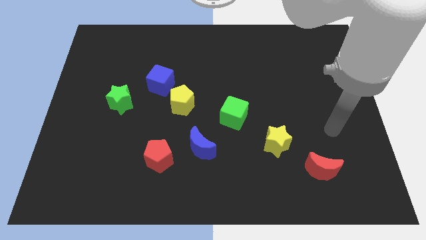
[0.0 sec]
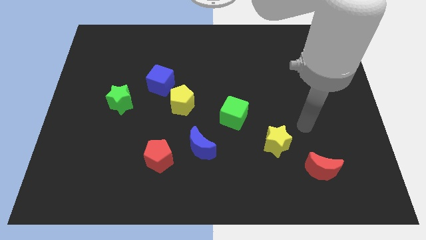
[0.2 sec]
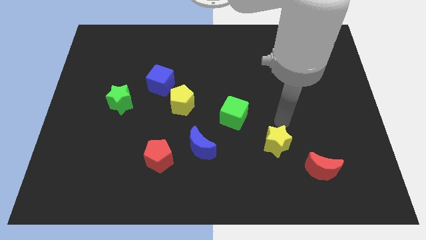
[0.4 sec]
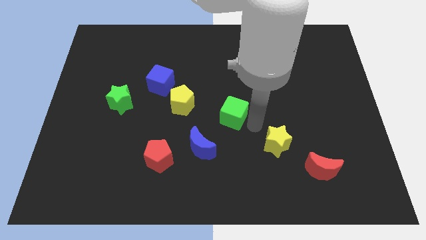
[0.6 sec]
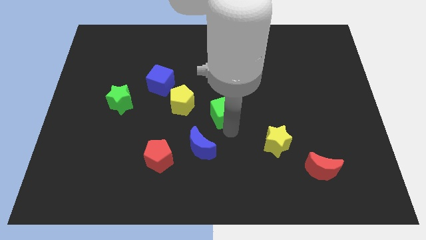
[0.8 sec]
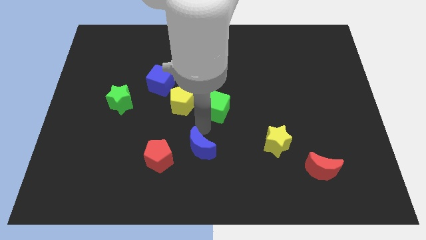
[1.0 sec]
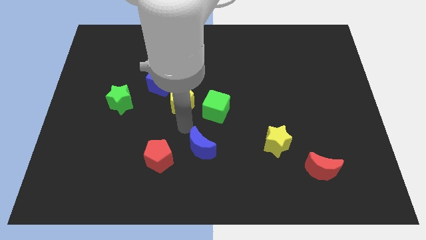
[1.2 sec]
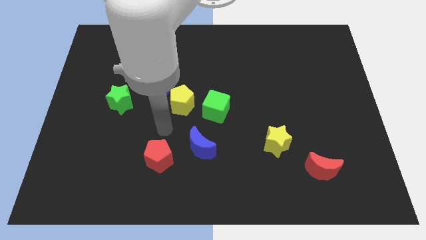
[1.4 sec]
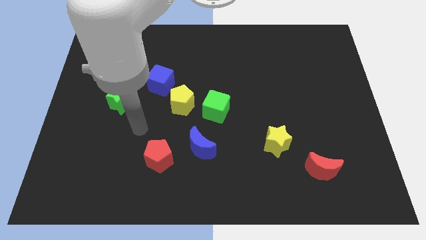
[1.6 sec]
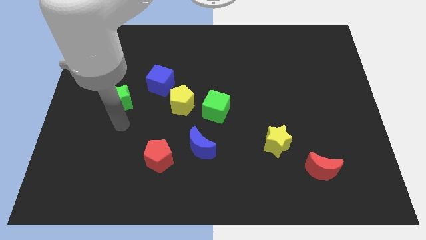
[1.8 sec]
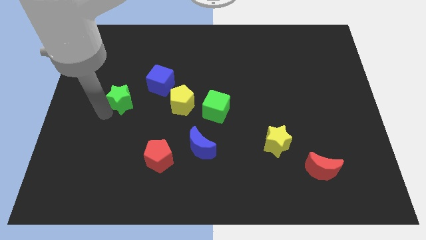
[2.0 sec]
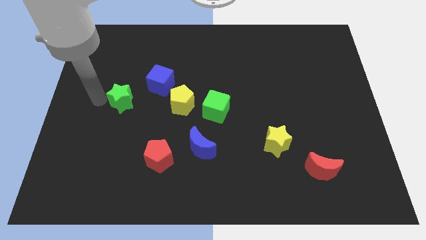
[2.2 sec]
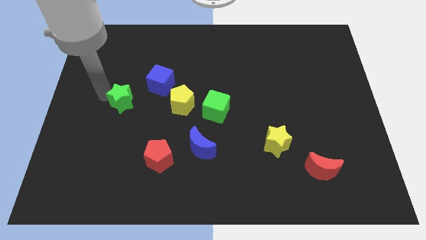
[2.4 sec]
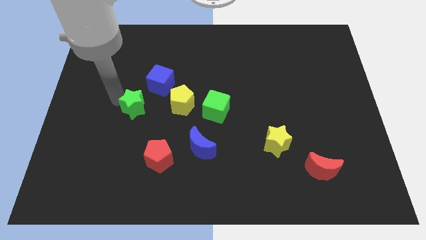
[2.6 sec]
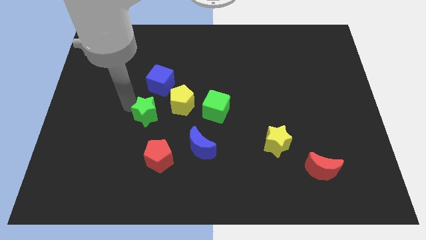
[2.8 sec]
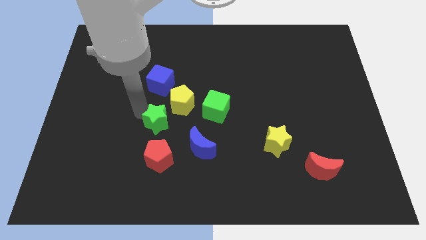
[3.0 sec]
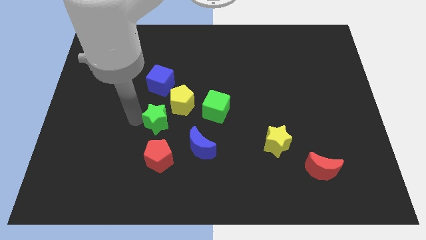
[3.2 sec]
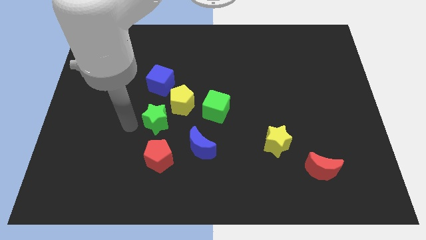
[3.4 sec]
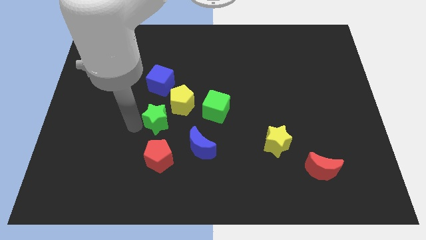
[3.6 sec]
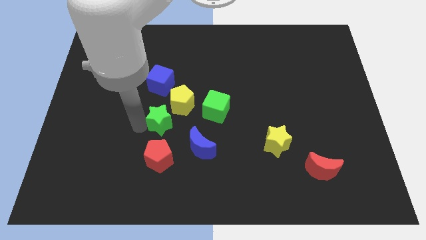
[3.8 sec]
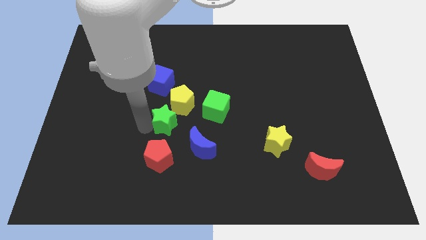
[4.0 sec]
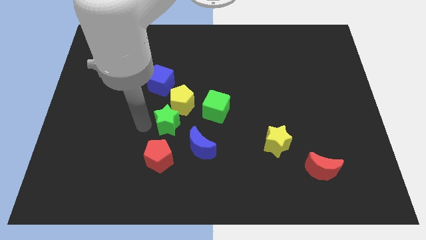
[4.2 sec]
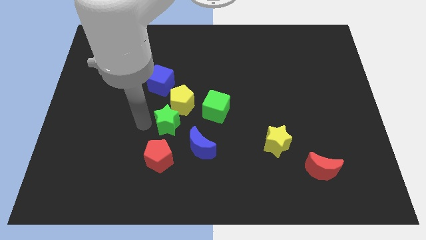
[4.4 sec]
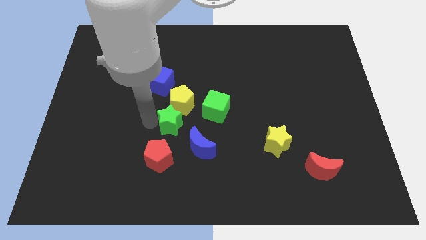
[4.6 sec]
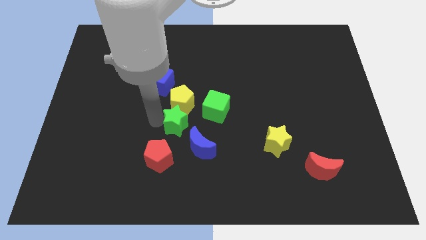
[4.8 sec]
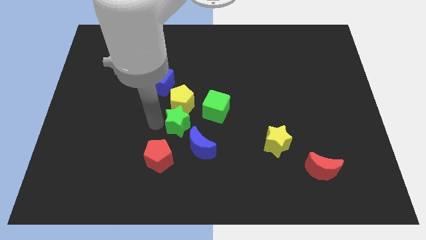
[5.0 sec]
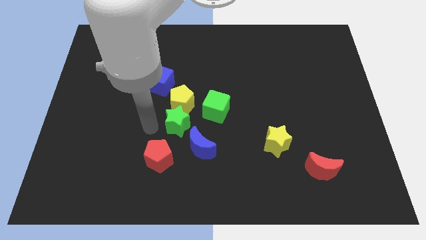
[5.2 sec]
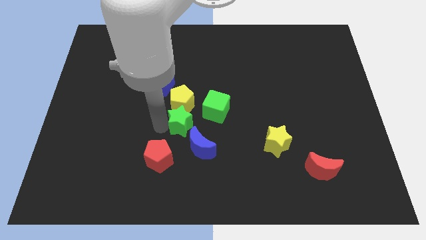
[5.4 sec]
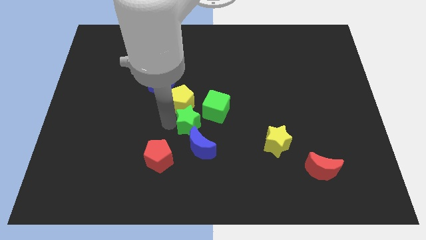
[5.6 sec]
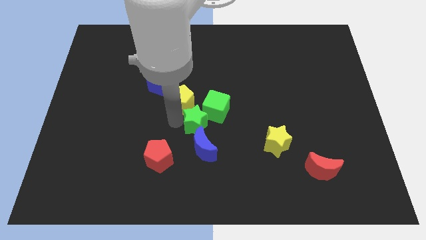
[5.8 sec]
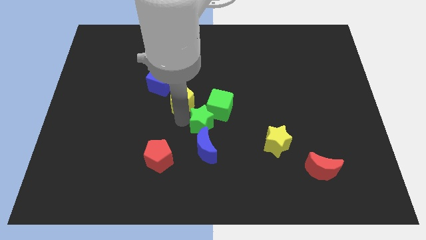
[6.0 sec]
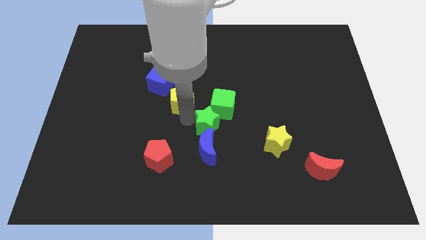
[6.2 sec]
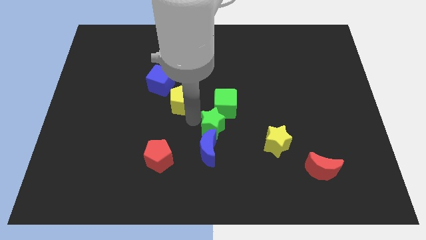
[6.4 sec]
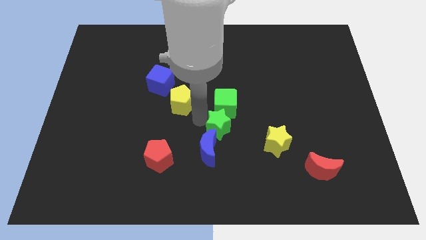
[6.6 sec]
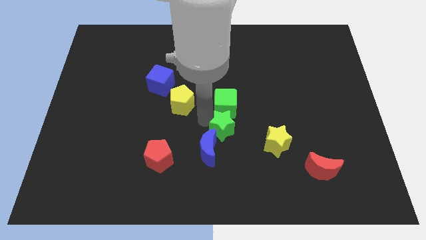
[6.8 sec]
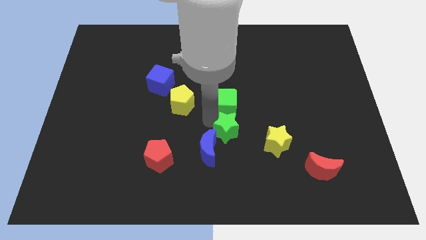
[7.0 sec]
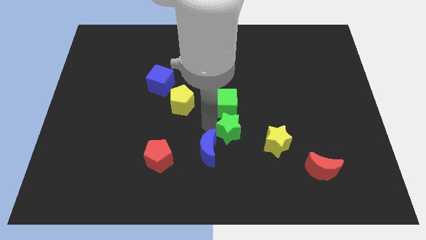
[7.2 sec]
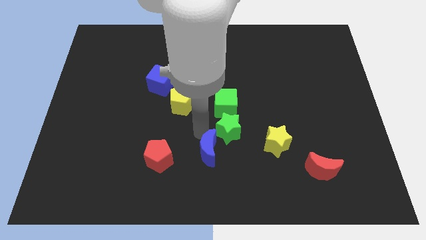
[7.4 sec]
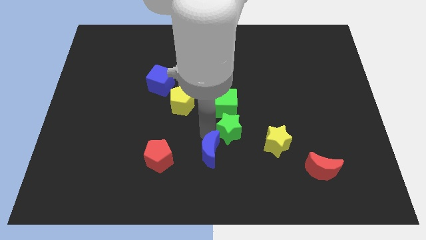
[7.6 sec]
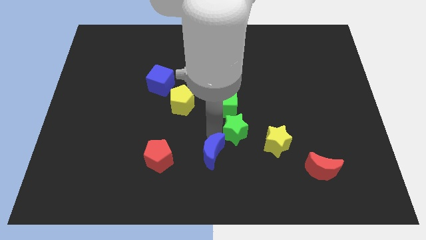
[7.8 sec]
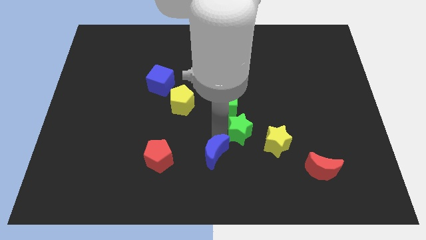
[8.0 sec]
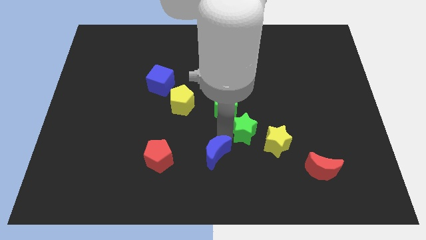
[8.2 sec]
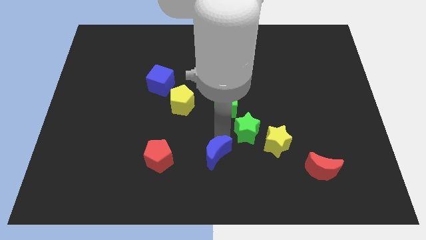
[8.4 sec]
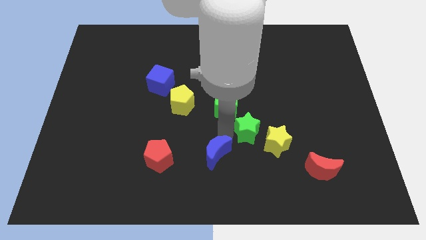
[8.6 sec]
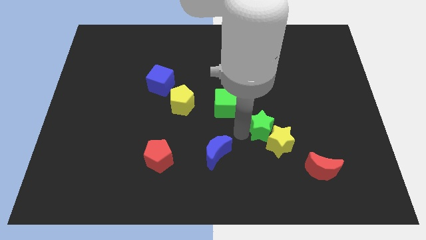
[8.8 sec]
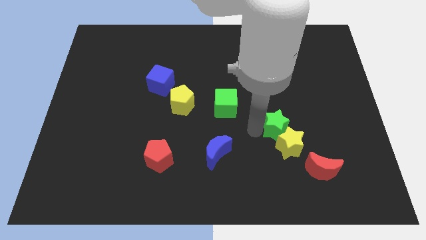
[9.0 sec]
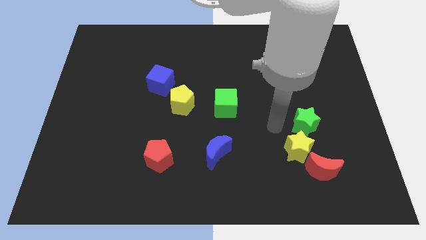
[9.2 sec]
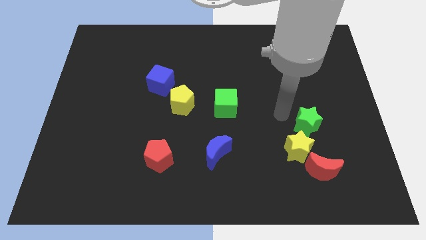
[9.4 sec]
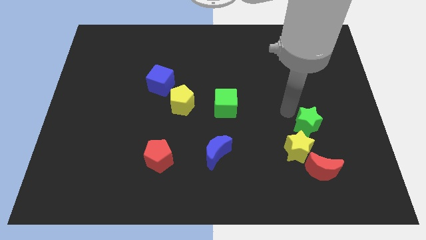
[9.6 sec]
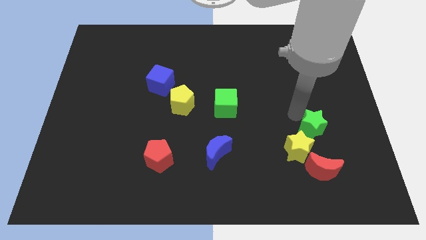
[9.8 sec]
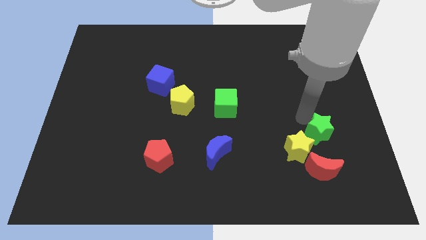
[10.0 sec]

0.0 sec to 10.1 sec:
push the green star right of the yellow star

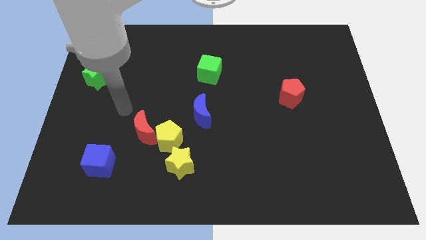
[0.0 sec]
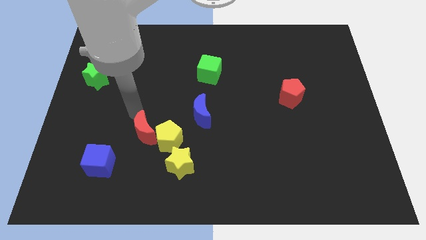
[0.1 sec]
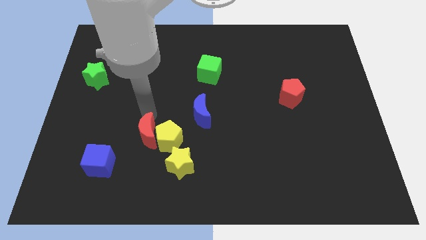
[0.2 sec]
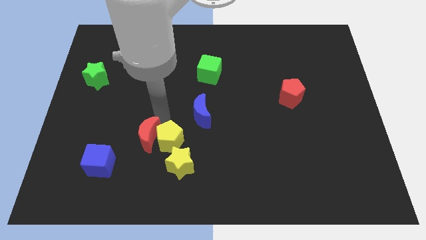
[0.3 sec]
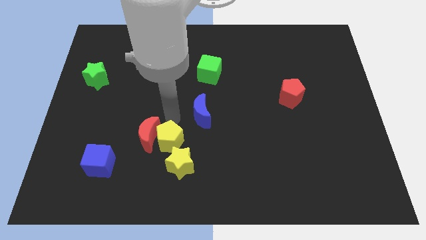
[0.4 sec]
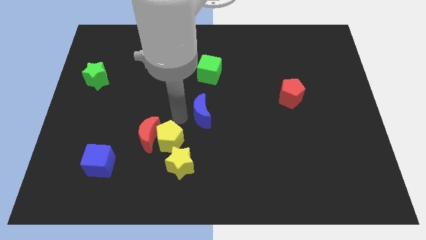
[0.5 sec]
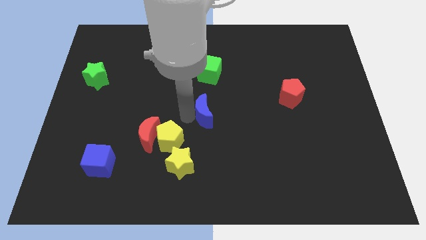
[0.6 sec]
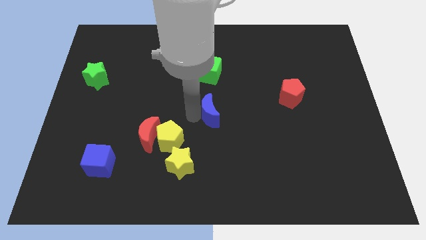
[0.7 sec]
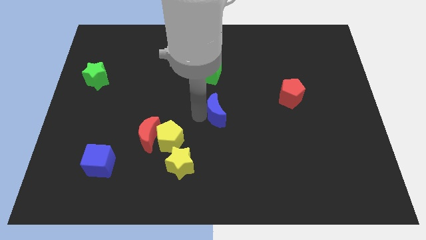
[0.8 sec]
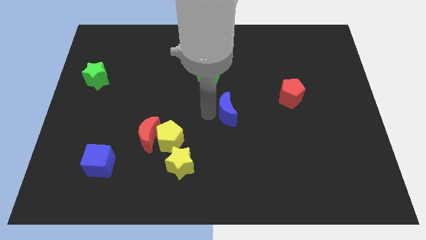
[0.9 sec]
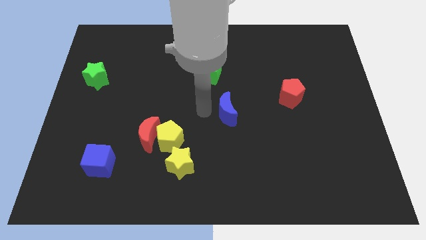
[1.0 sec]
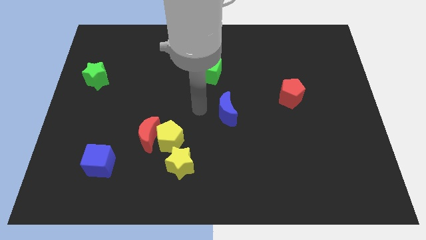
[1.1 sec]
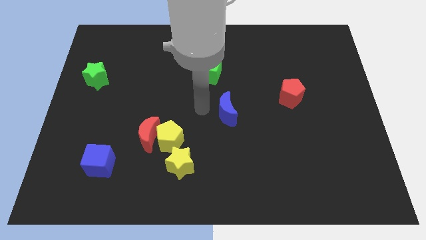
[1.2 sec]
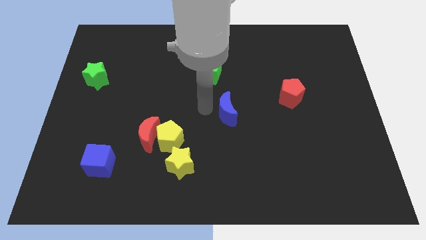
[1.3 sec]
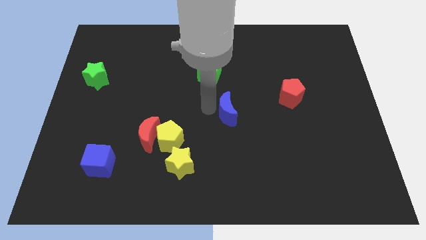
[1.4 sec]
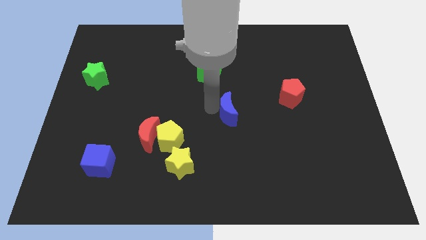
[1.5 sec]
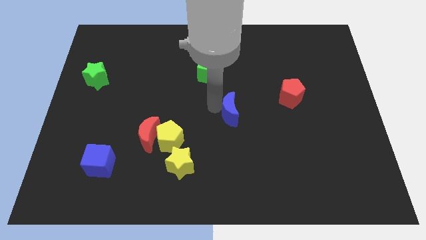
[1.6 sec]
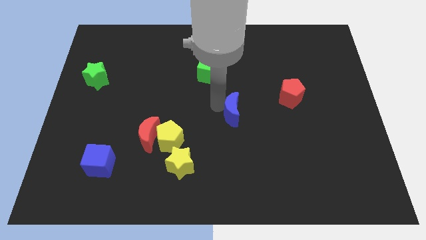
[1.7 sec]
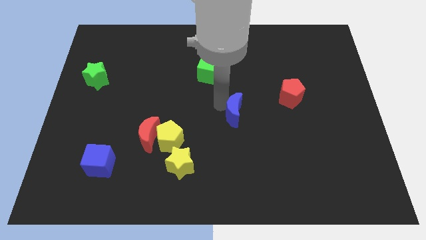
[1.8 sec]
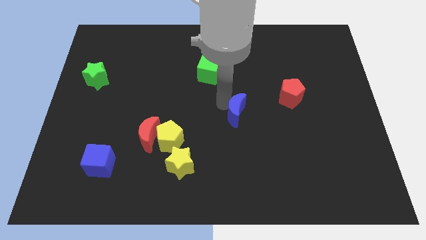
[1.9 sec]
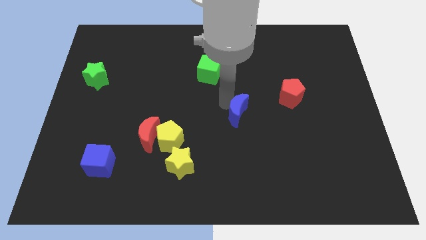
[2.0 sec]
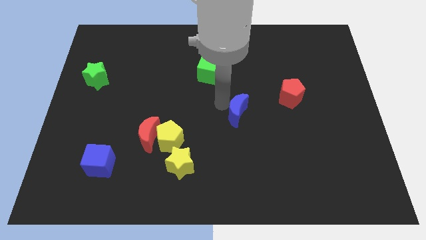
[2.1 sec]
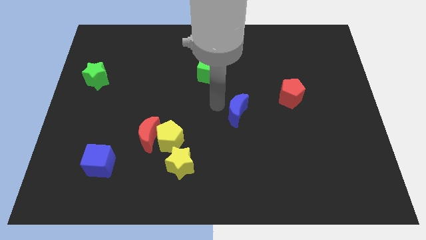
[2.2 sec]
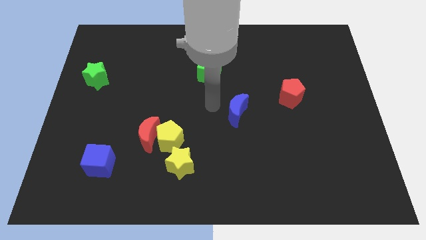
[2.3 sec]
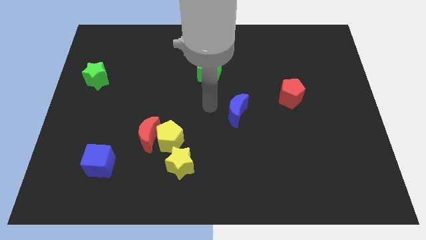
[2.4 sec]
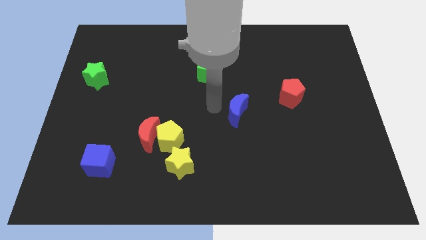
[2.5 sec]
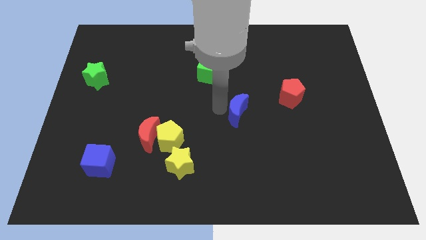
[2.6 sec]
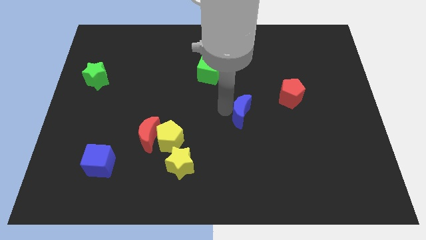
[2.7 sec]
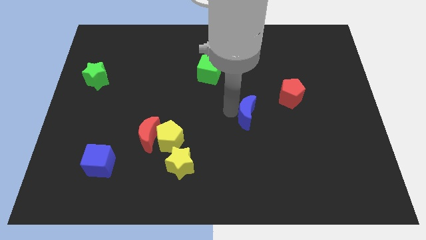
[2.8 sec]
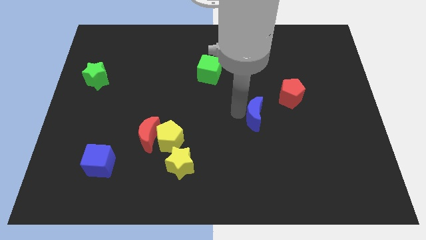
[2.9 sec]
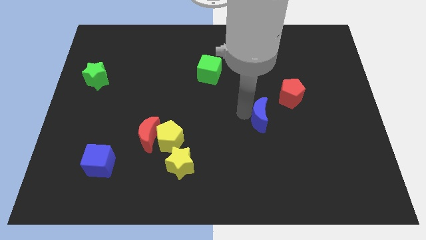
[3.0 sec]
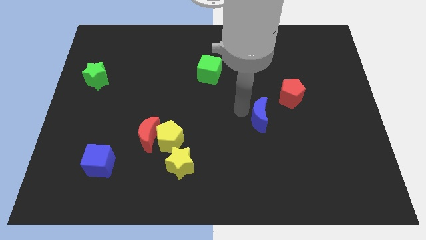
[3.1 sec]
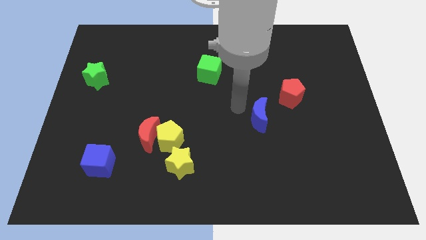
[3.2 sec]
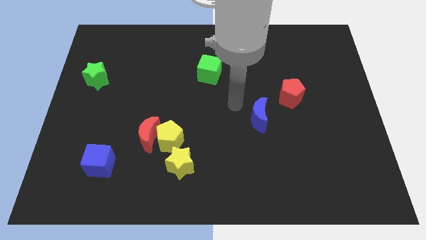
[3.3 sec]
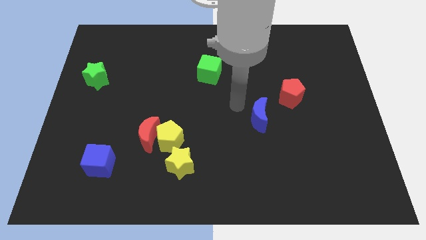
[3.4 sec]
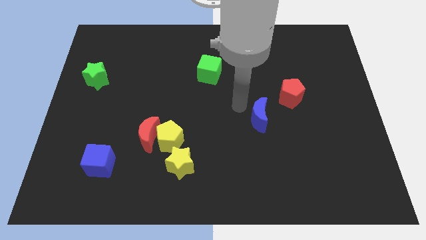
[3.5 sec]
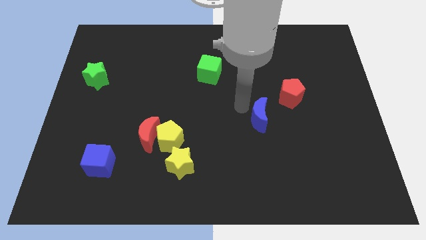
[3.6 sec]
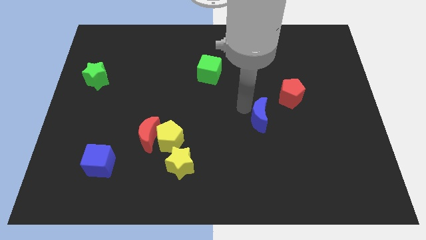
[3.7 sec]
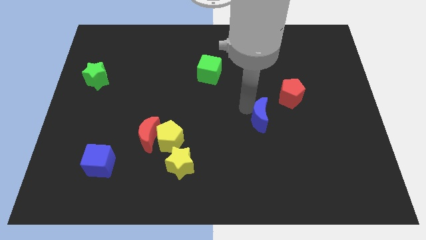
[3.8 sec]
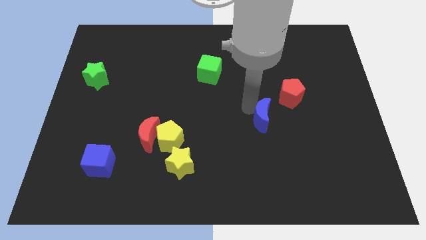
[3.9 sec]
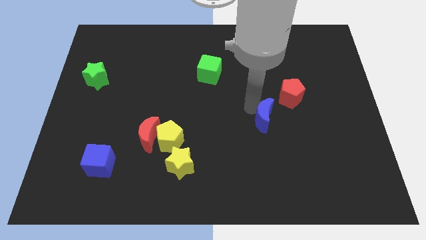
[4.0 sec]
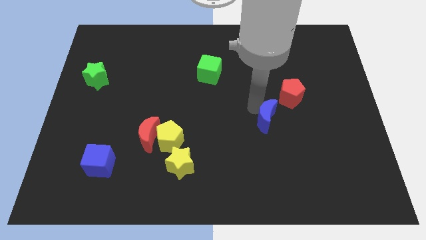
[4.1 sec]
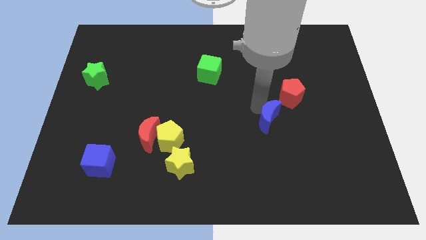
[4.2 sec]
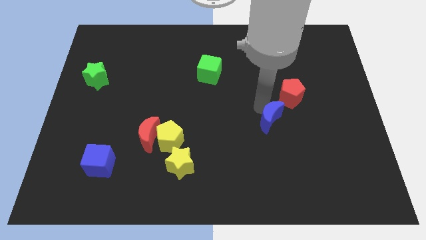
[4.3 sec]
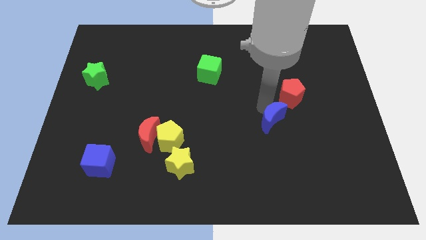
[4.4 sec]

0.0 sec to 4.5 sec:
move the blue moon to the bottom side of the red pentagon
